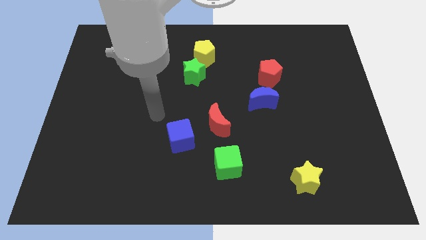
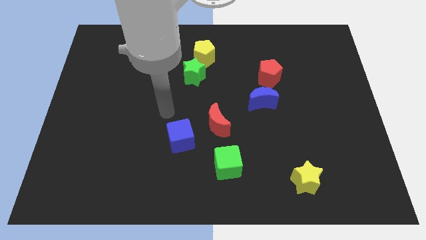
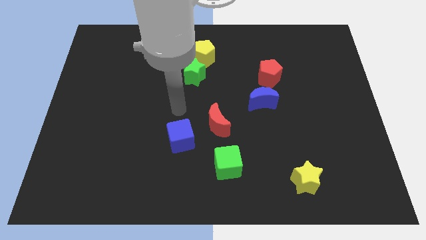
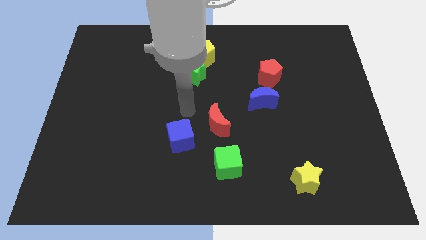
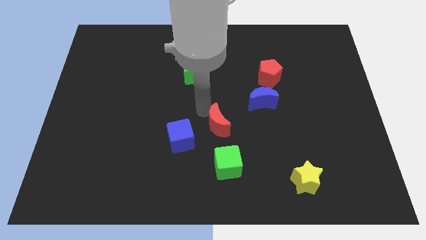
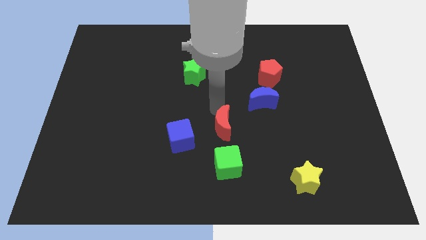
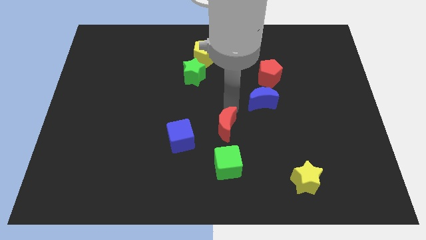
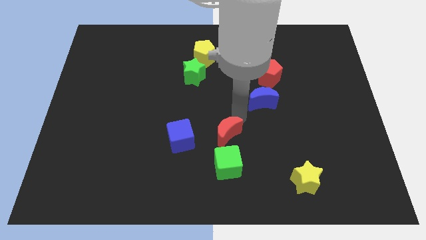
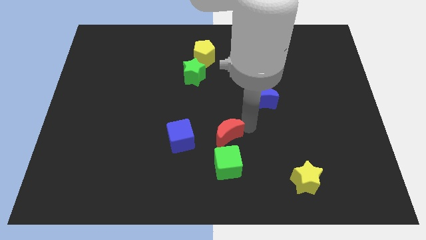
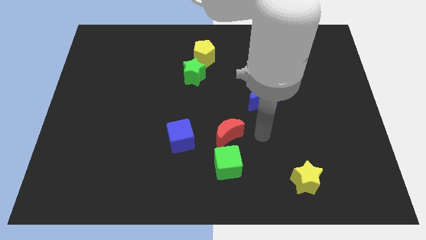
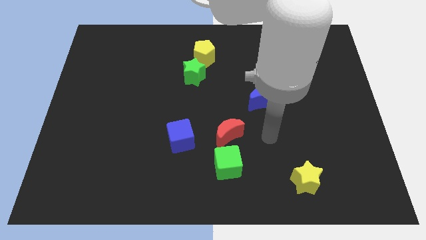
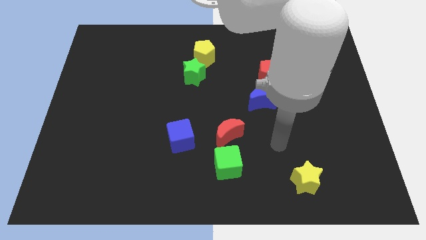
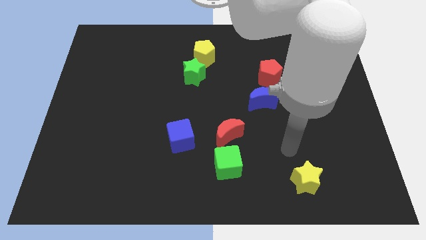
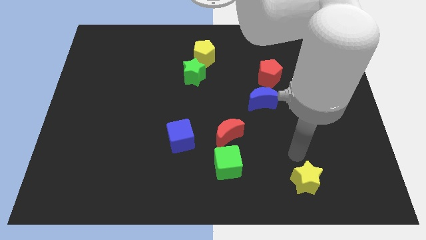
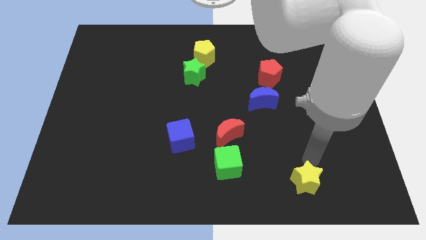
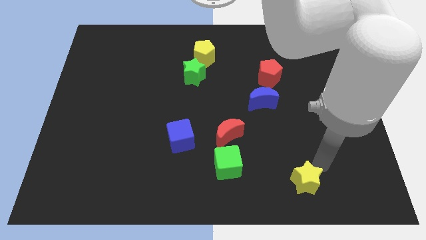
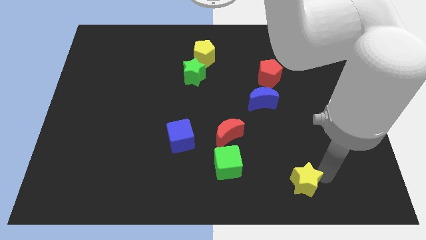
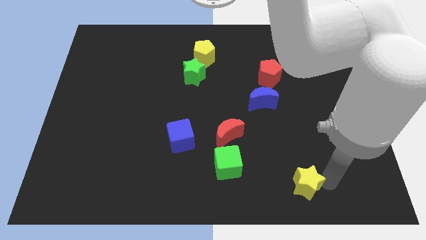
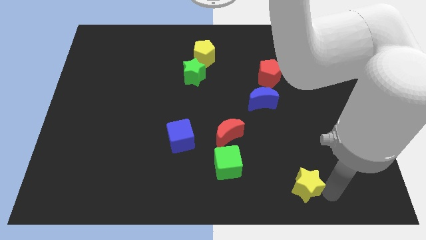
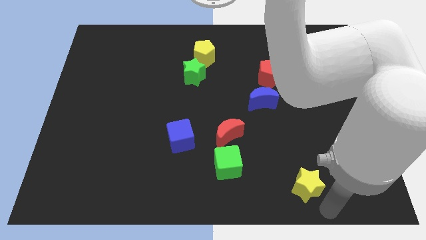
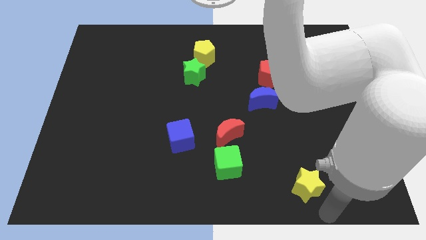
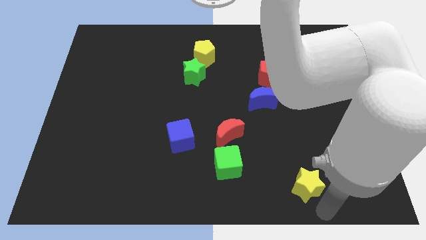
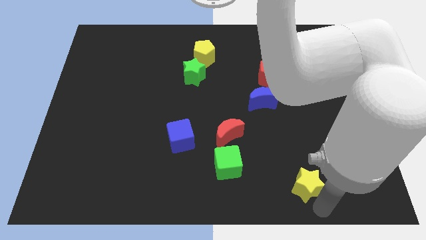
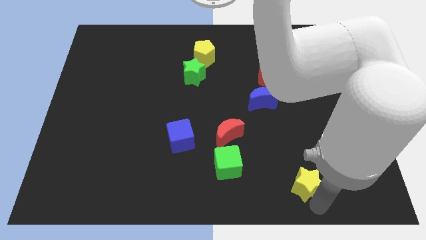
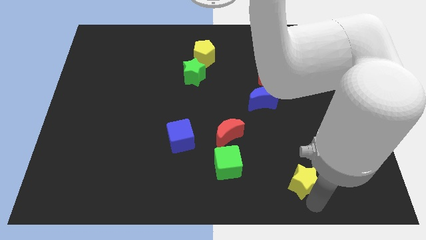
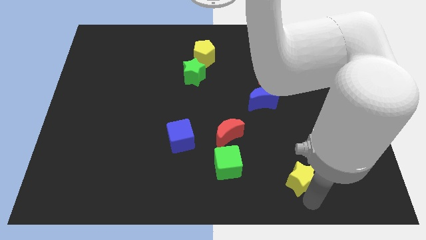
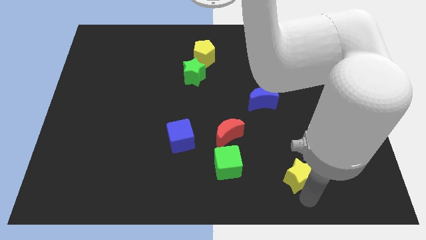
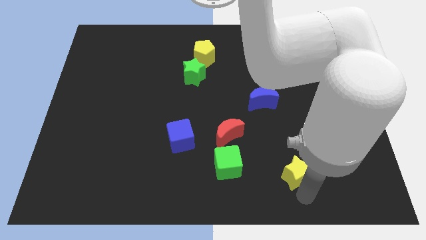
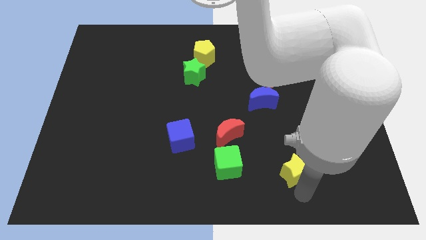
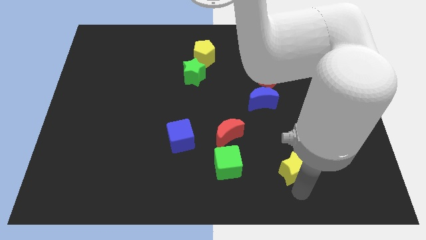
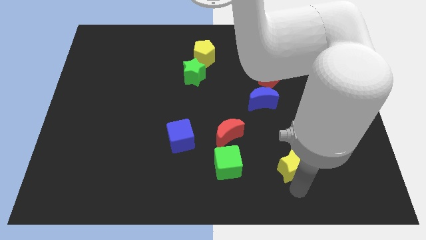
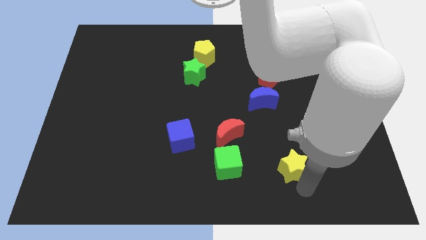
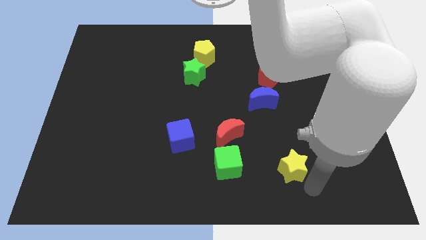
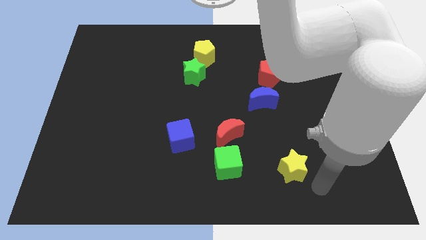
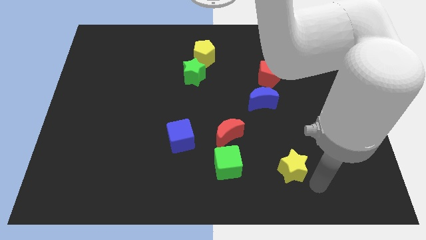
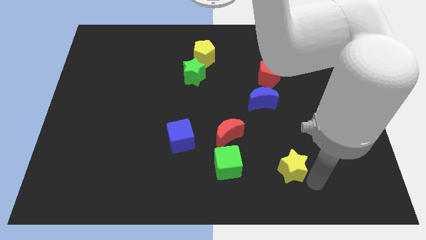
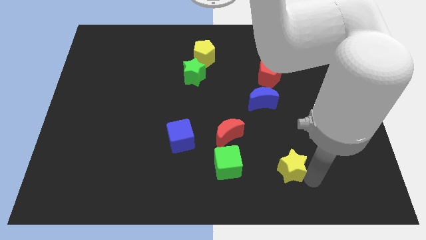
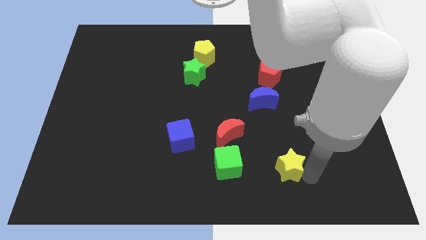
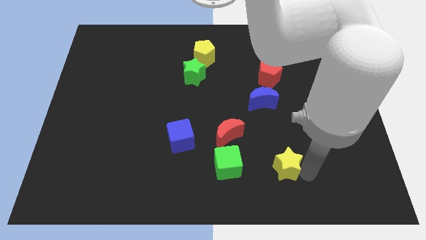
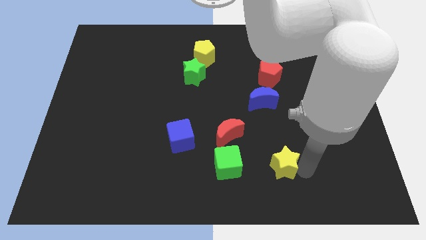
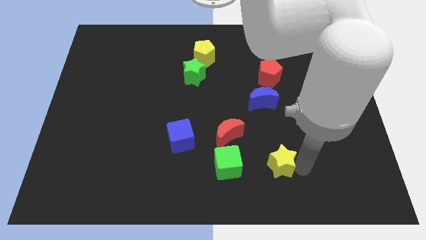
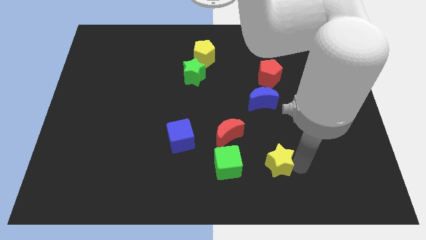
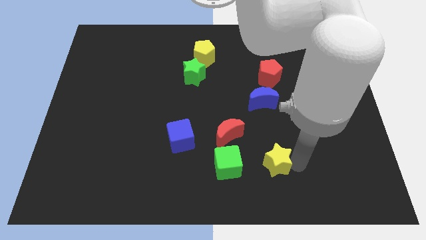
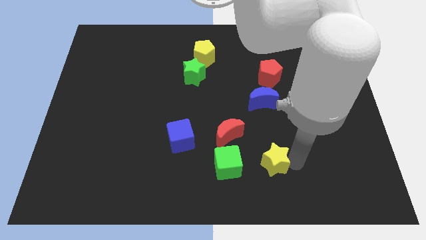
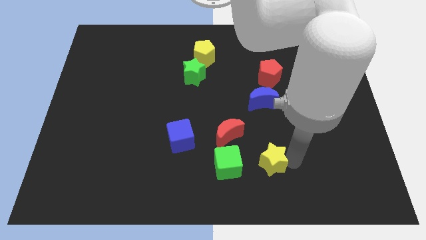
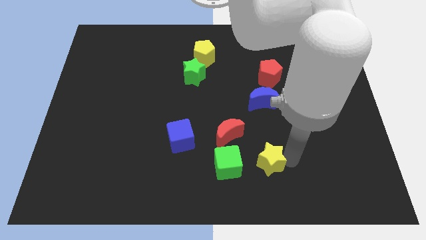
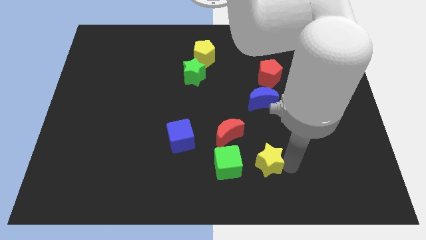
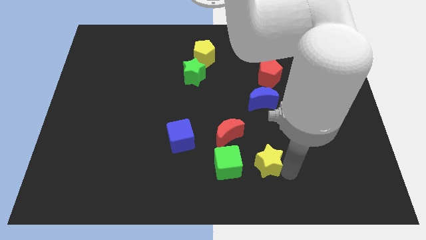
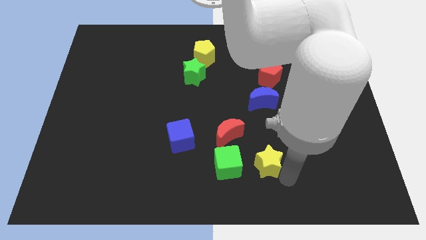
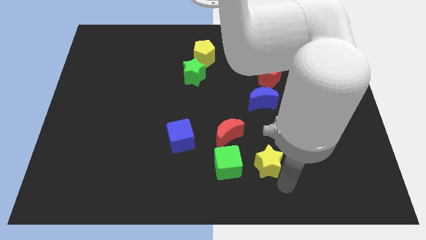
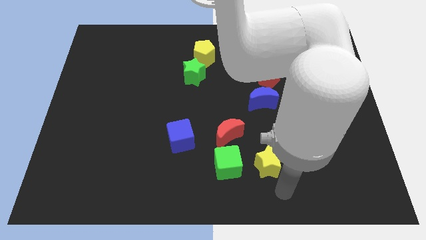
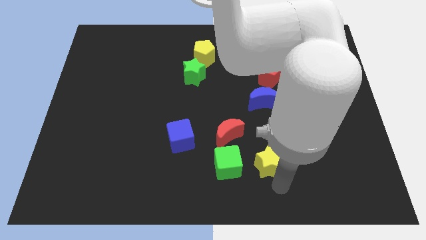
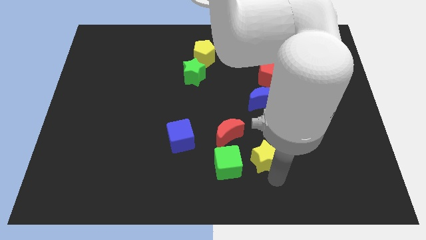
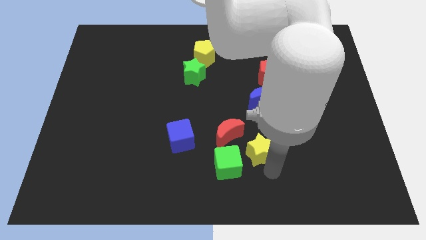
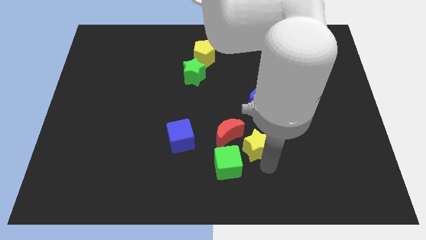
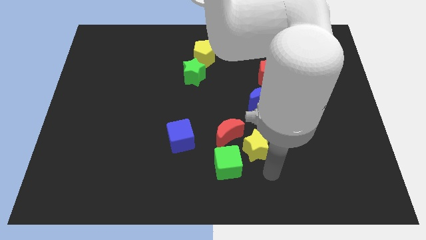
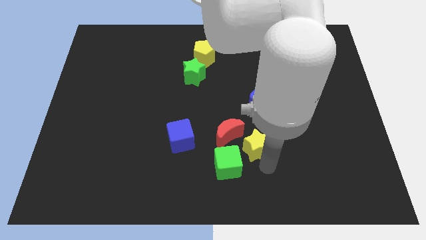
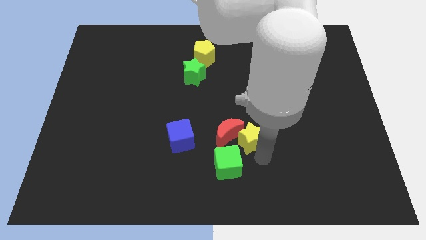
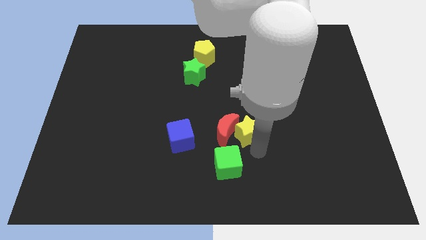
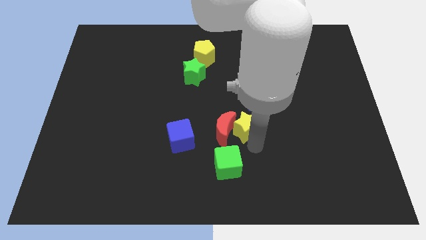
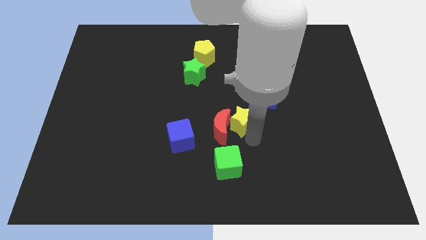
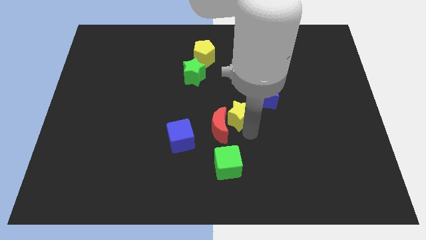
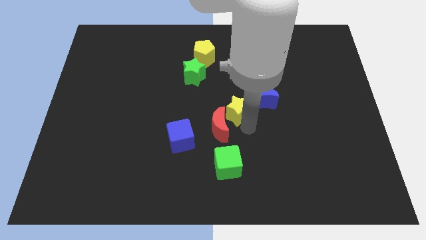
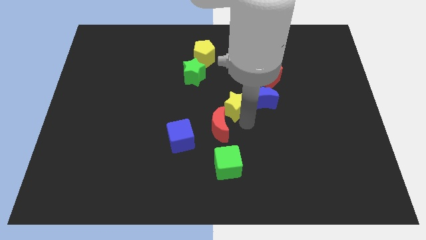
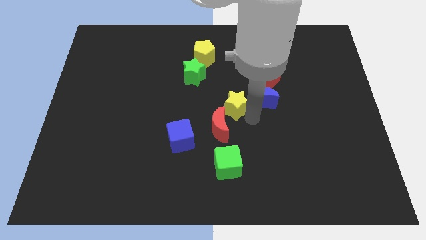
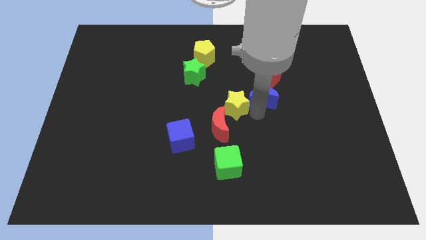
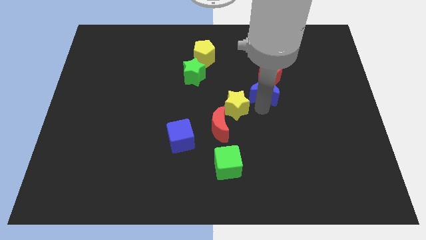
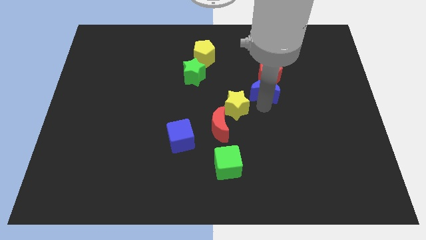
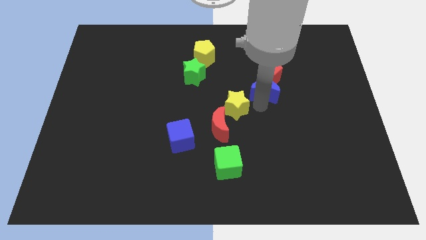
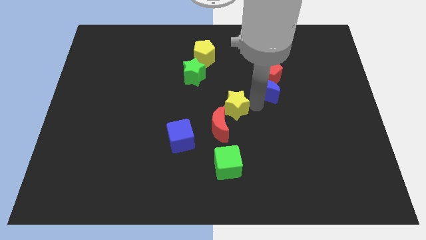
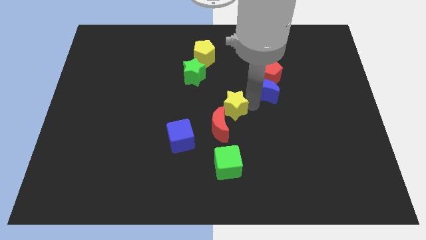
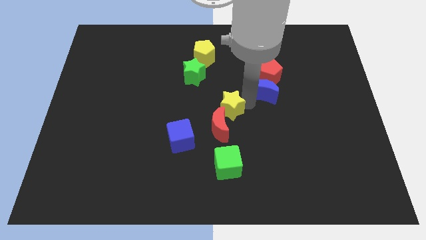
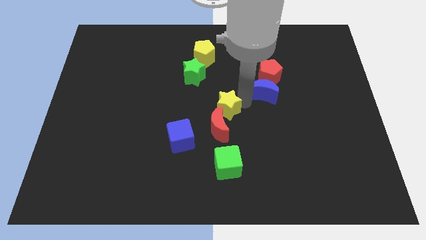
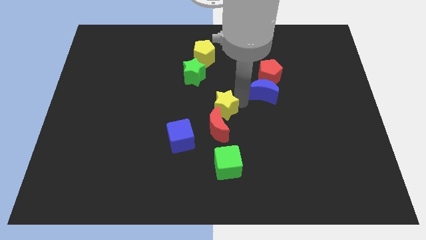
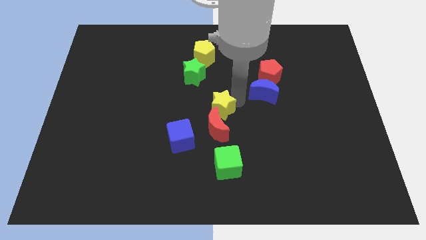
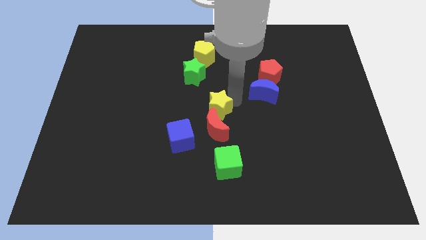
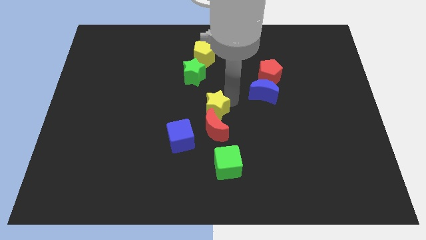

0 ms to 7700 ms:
push the yellow star diagonally up and to the left of the red moon
